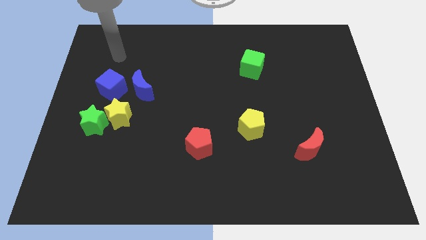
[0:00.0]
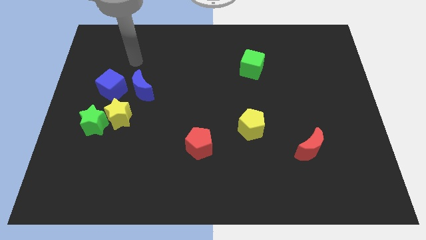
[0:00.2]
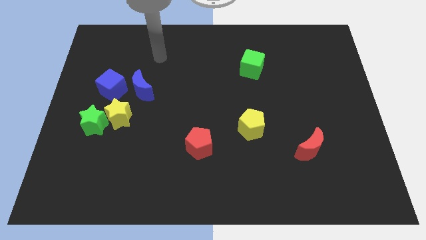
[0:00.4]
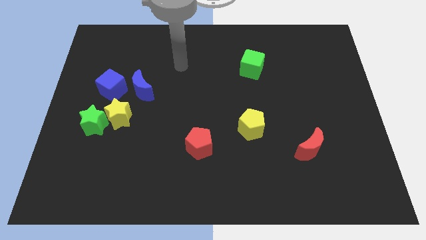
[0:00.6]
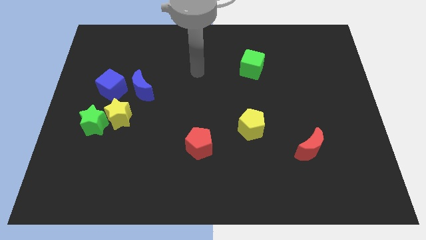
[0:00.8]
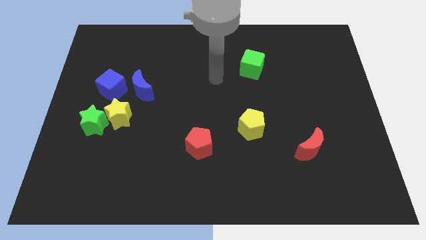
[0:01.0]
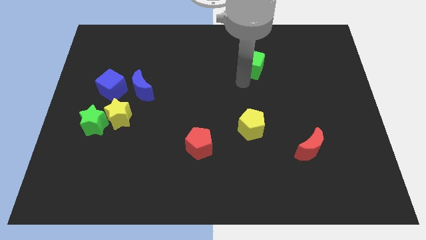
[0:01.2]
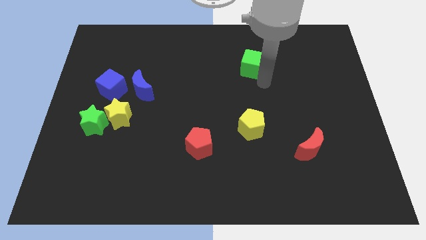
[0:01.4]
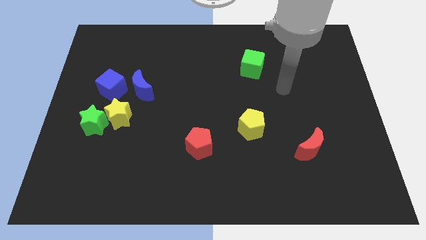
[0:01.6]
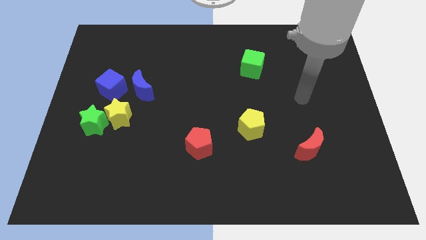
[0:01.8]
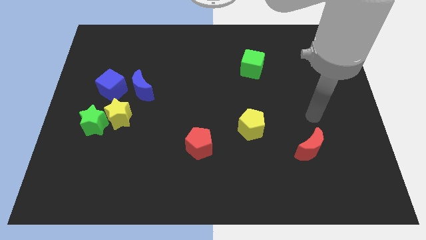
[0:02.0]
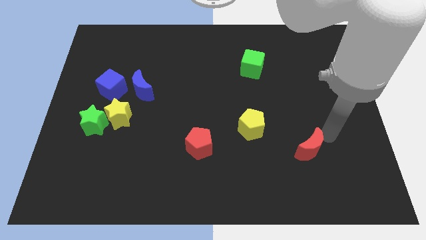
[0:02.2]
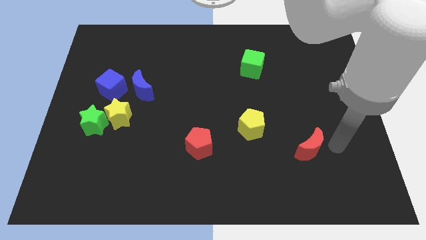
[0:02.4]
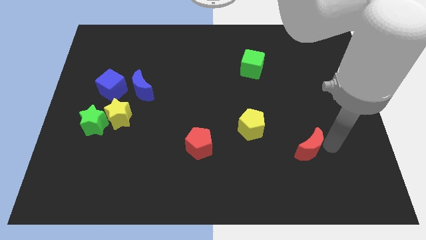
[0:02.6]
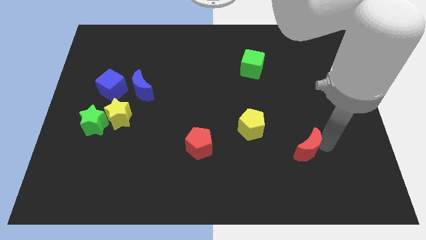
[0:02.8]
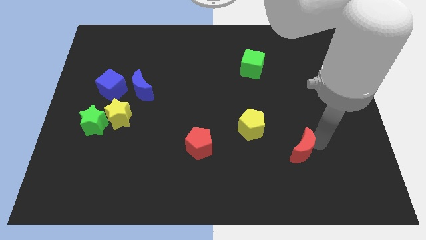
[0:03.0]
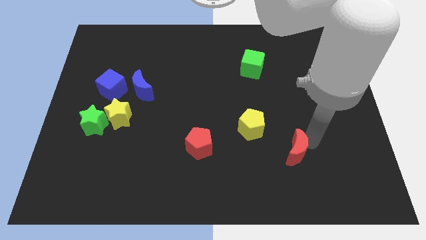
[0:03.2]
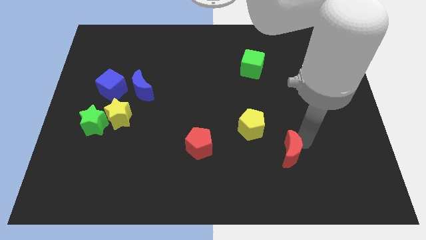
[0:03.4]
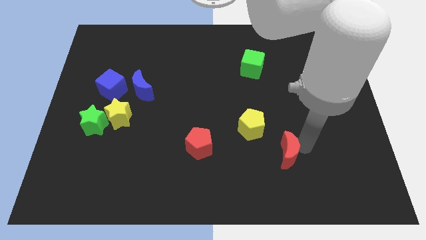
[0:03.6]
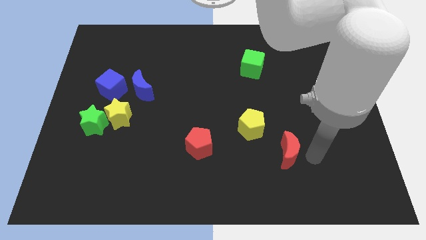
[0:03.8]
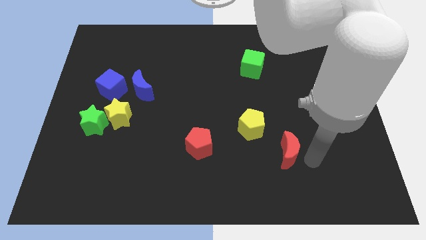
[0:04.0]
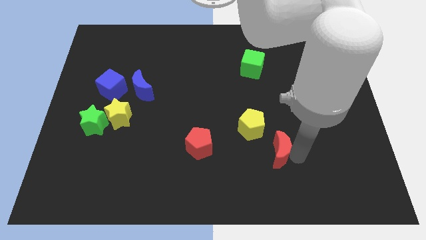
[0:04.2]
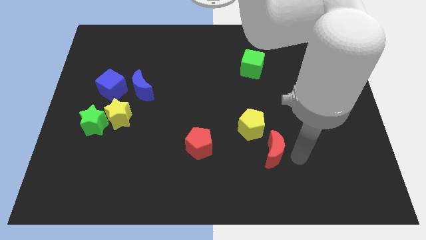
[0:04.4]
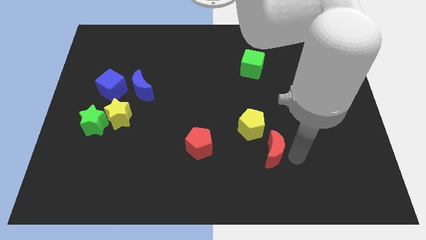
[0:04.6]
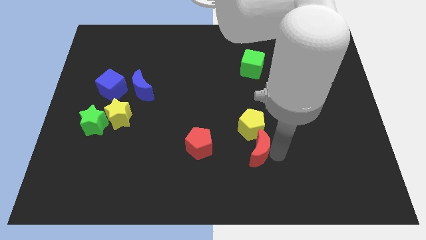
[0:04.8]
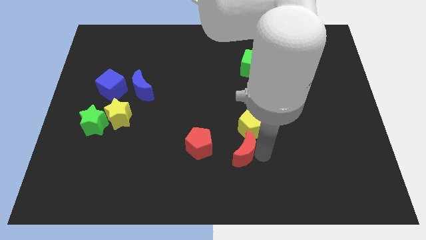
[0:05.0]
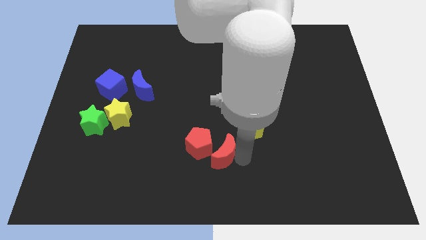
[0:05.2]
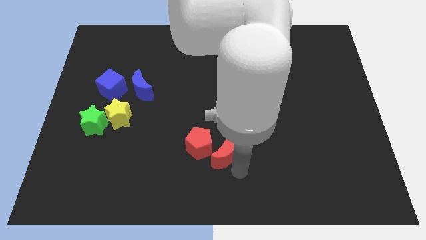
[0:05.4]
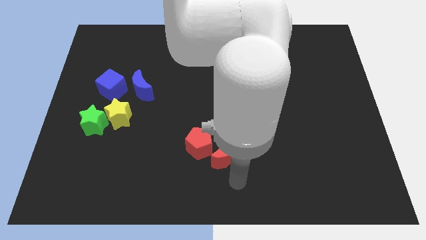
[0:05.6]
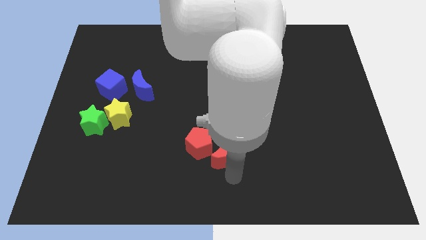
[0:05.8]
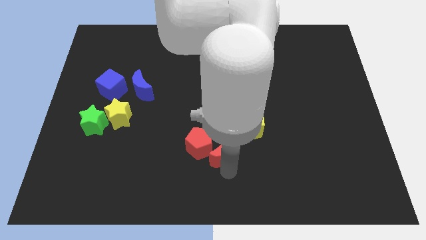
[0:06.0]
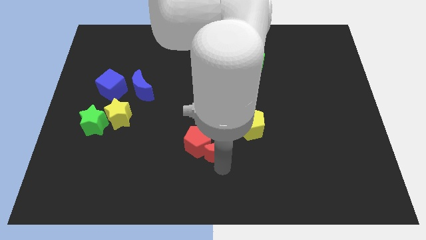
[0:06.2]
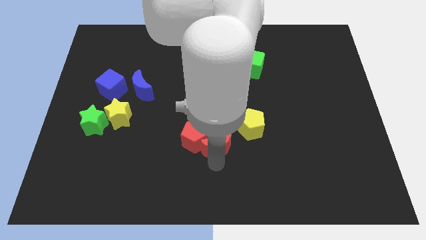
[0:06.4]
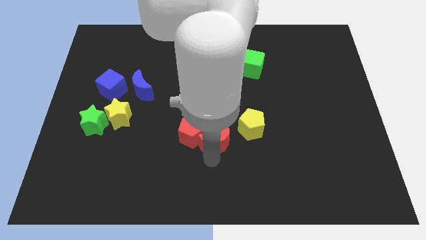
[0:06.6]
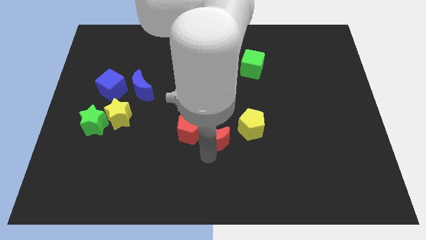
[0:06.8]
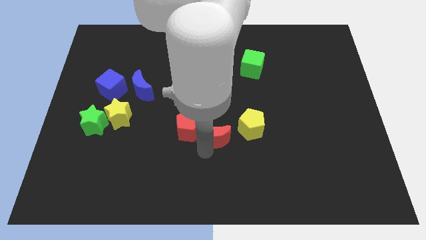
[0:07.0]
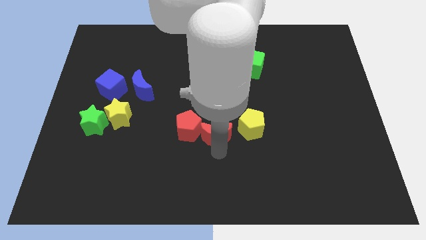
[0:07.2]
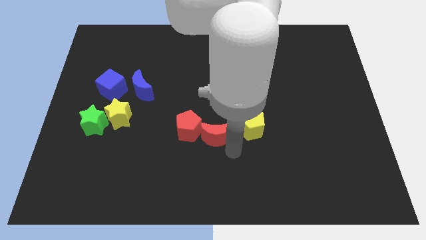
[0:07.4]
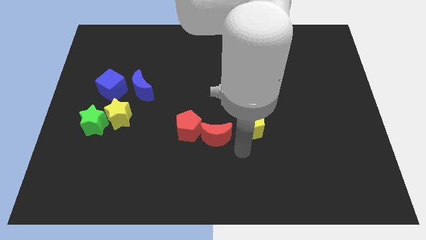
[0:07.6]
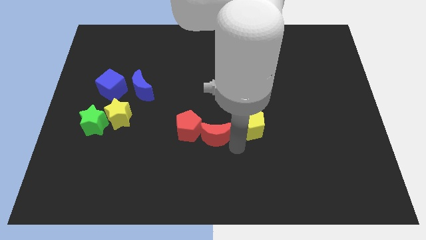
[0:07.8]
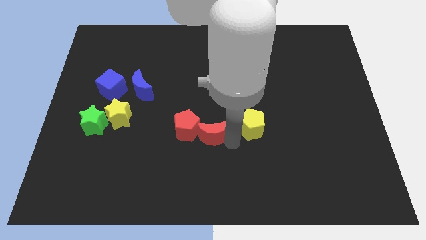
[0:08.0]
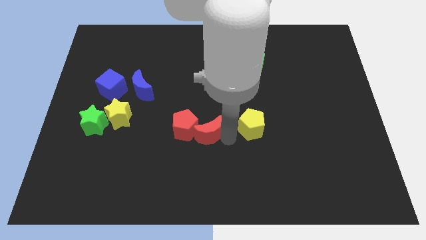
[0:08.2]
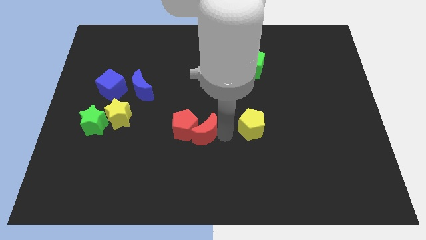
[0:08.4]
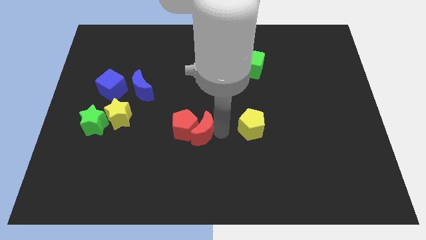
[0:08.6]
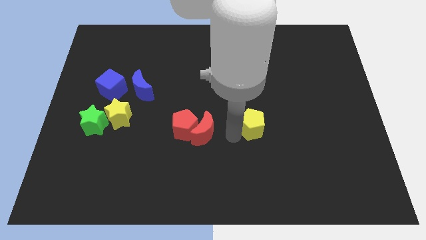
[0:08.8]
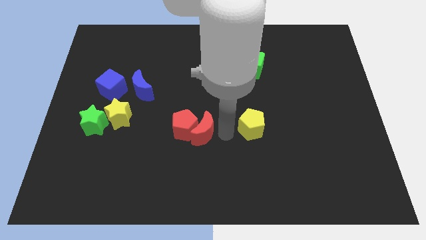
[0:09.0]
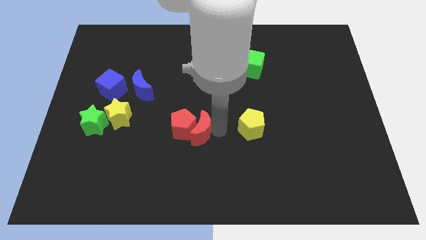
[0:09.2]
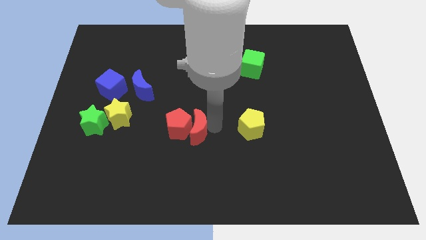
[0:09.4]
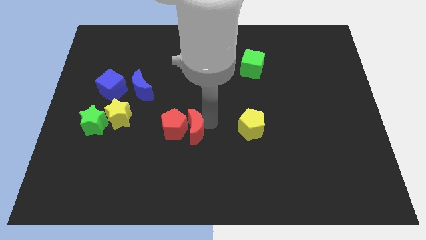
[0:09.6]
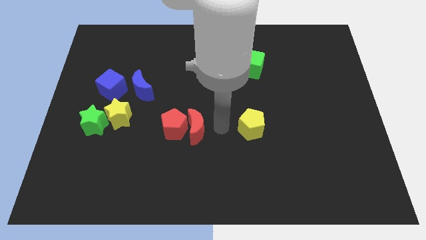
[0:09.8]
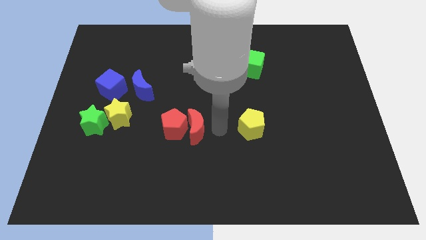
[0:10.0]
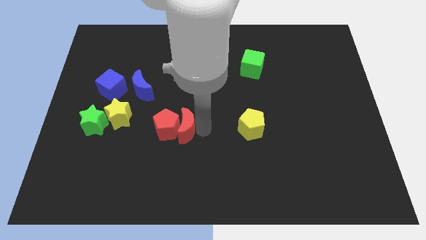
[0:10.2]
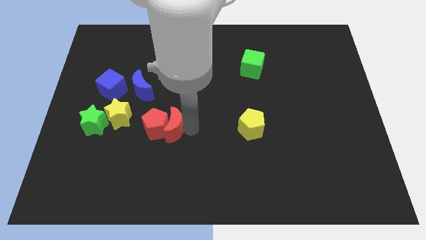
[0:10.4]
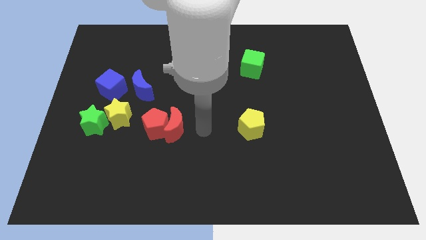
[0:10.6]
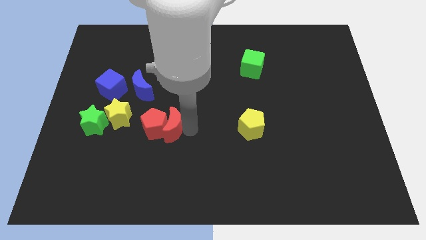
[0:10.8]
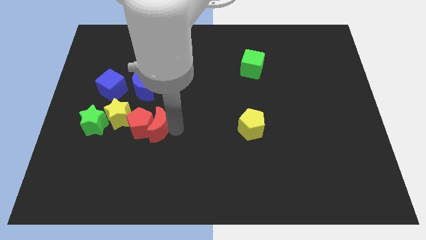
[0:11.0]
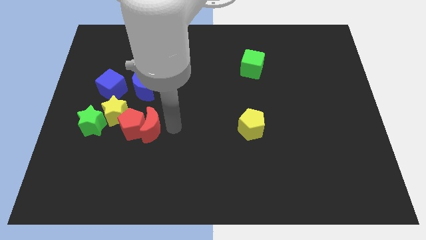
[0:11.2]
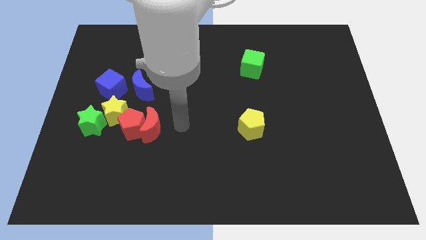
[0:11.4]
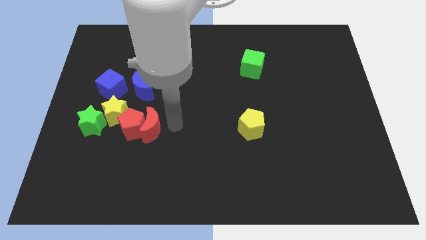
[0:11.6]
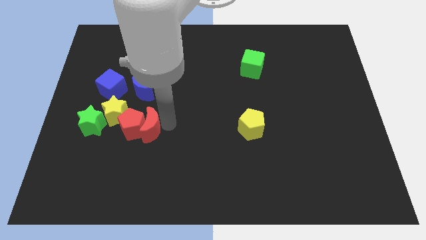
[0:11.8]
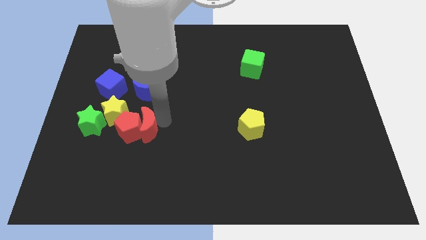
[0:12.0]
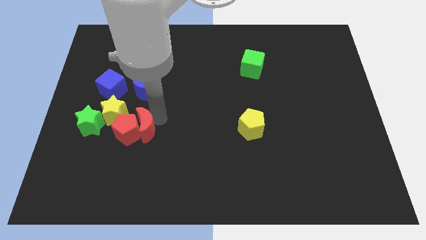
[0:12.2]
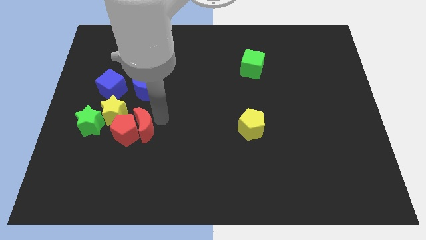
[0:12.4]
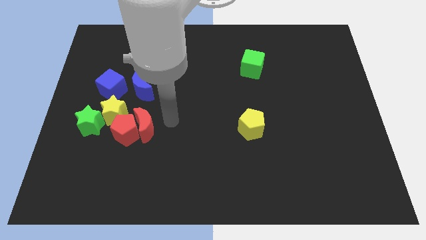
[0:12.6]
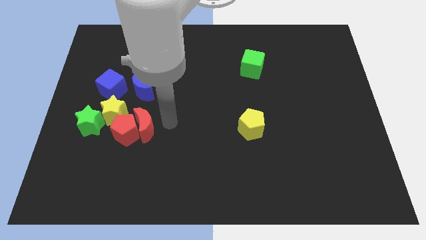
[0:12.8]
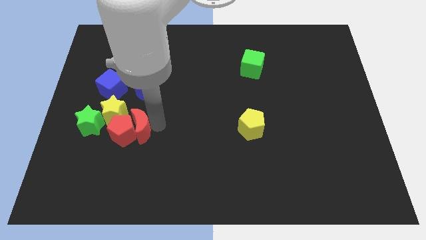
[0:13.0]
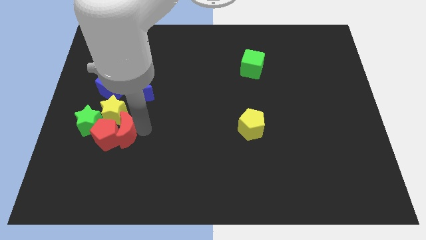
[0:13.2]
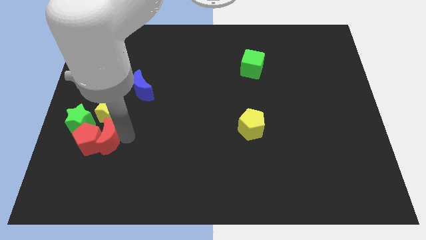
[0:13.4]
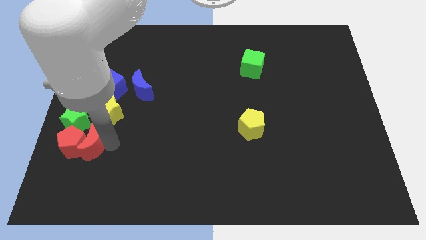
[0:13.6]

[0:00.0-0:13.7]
put the red moon diagonally down and to the left of the yellow star
